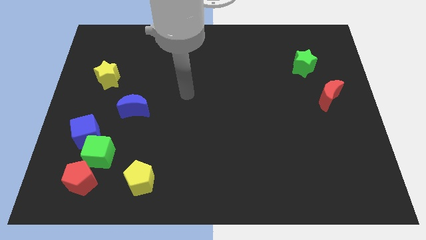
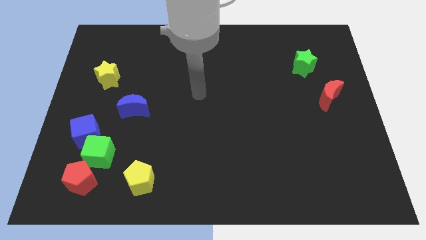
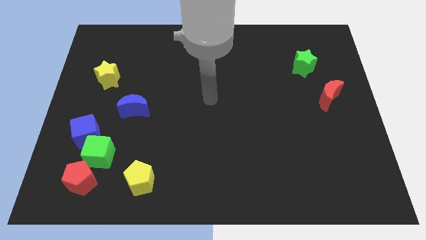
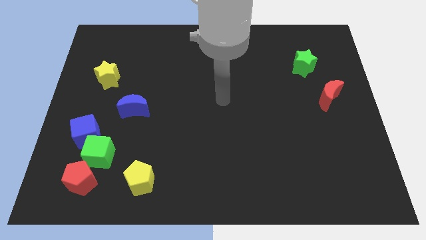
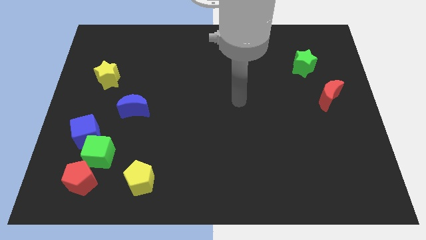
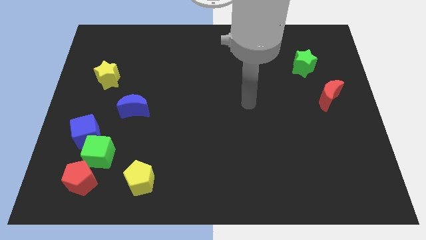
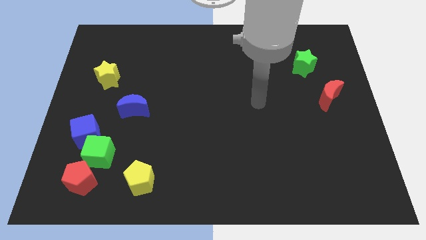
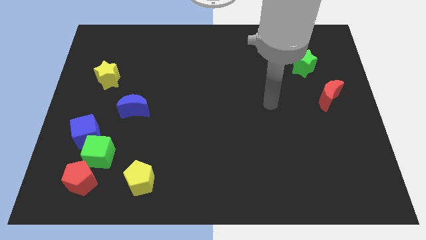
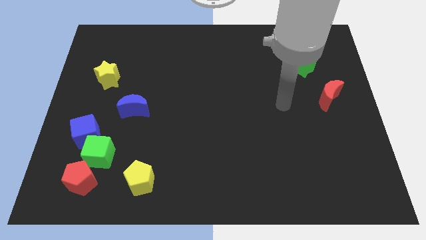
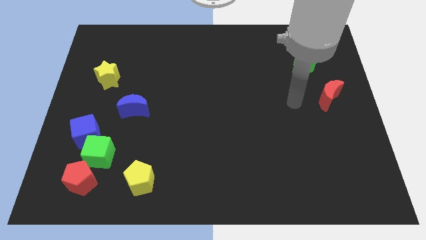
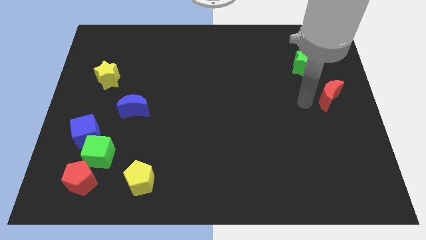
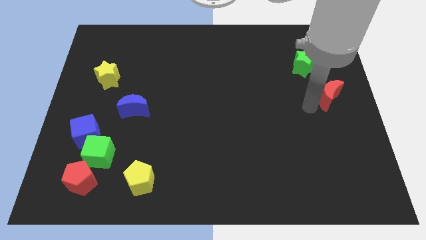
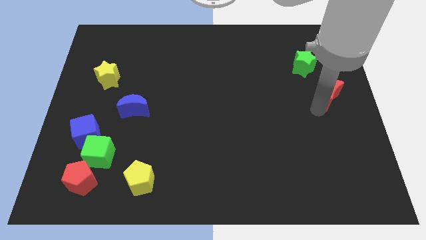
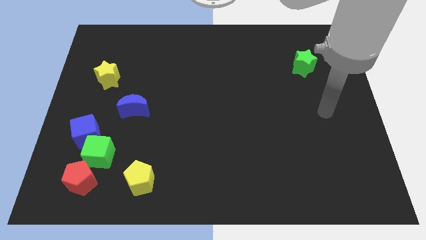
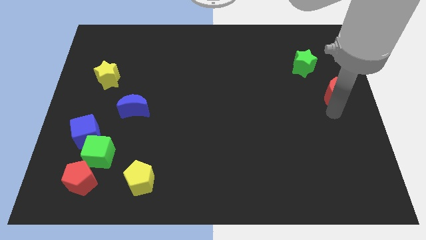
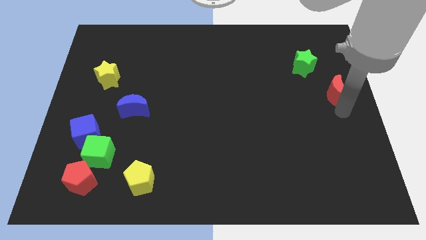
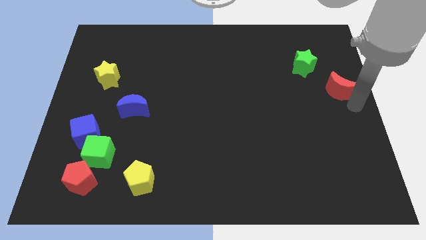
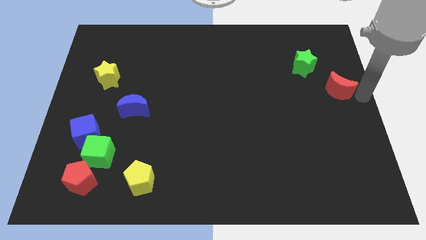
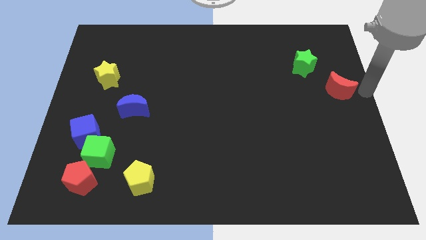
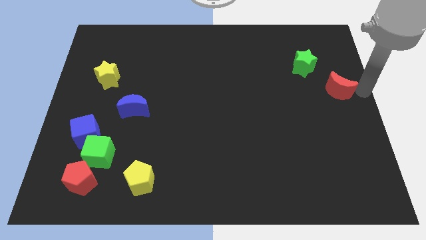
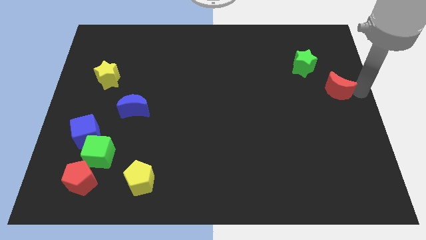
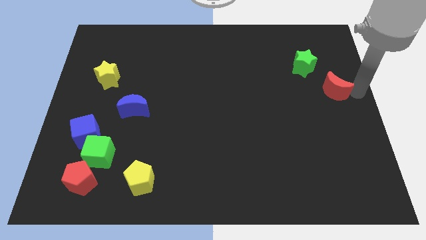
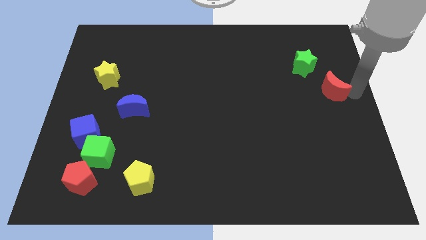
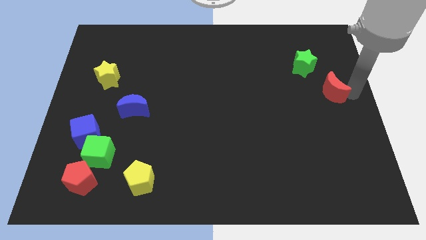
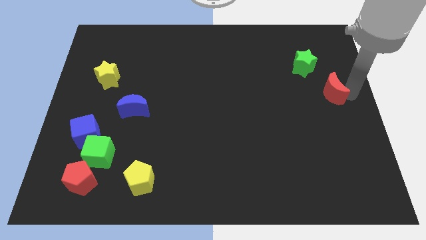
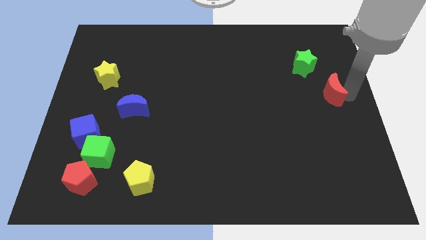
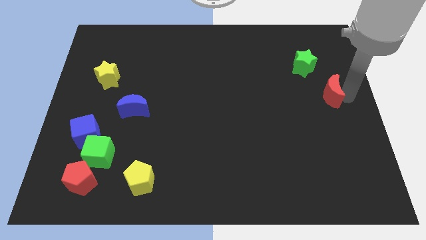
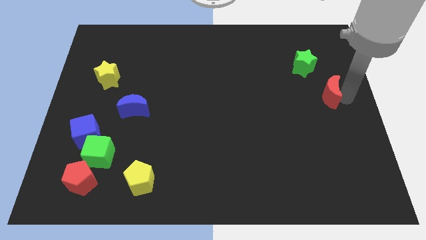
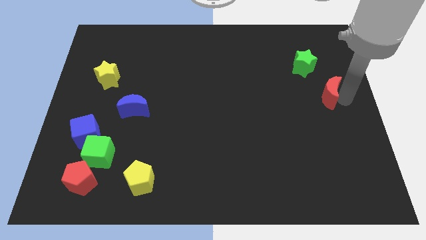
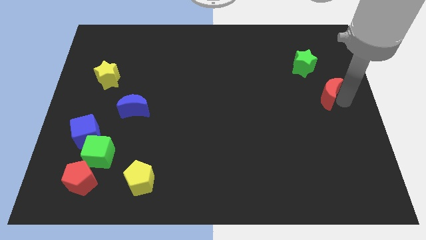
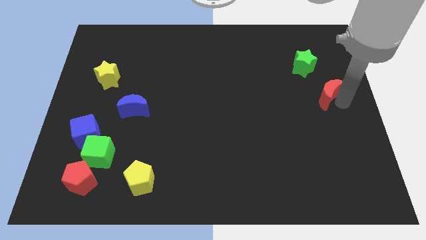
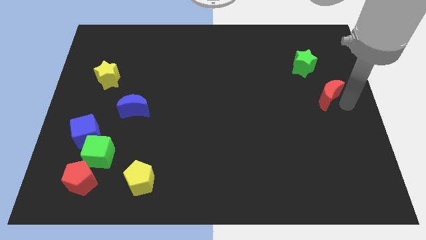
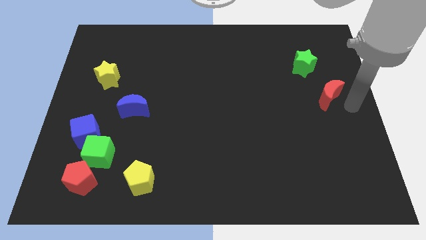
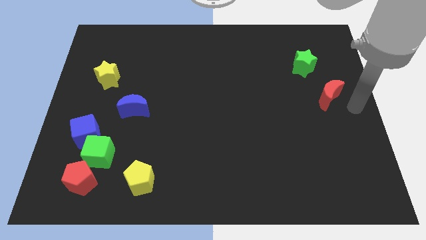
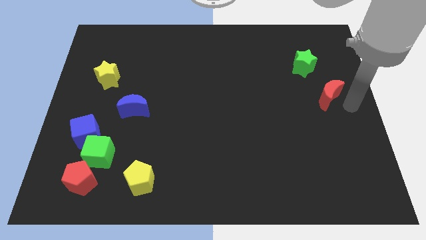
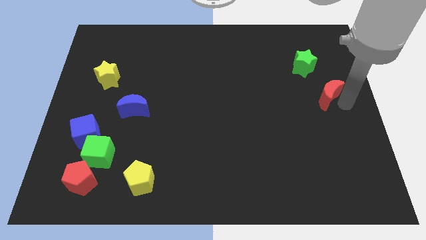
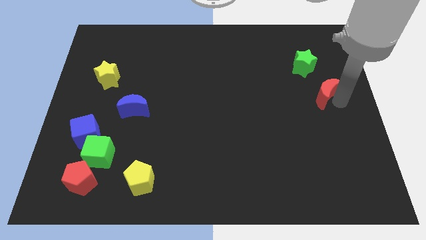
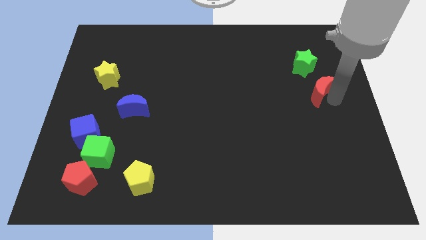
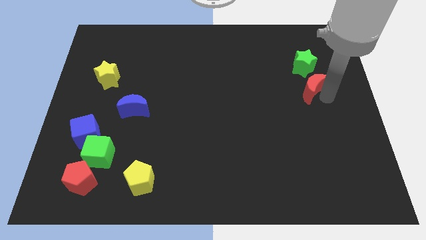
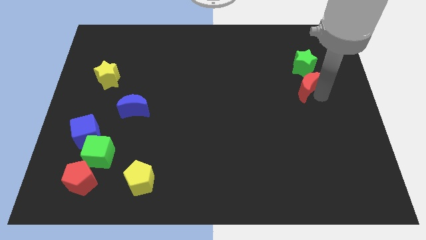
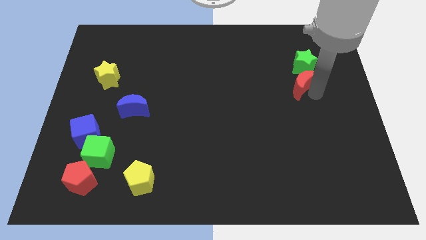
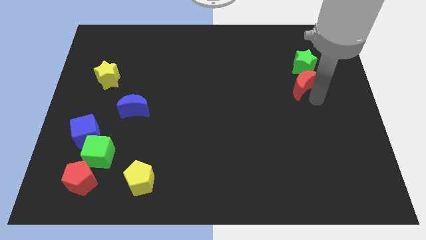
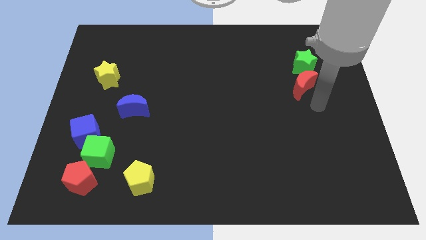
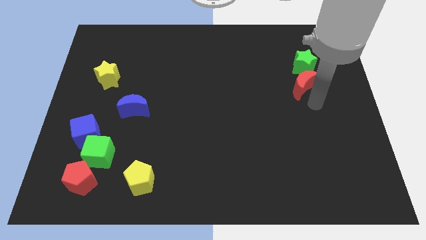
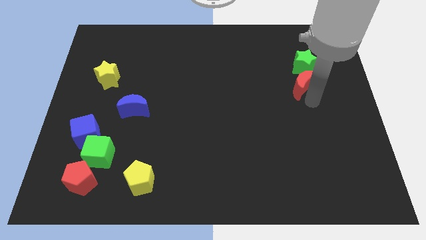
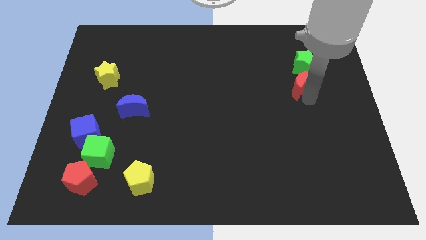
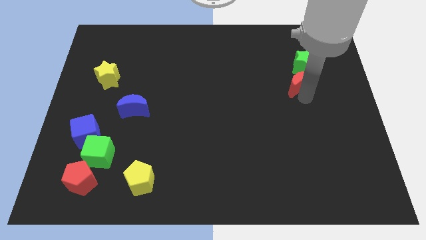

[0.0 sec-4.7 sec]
move the red moon diagonally up and to the left somewhat

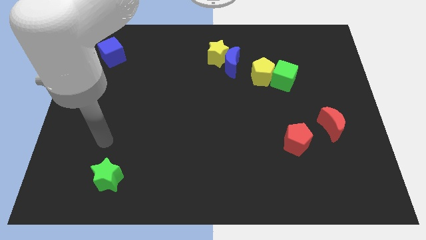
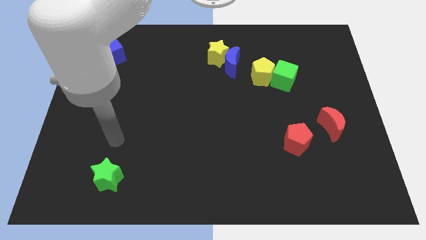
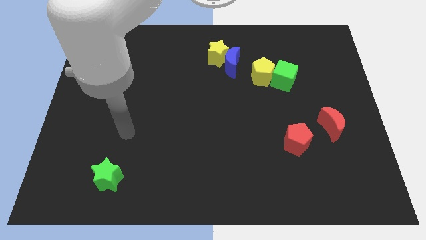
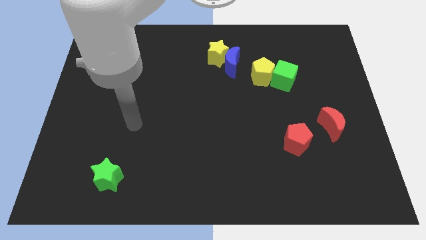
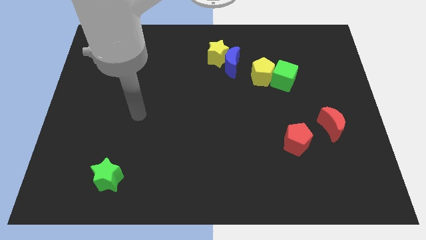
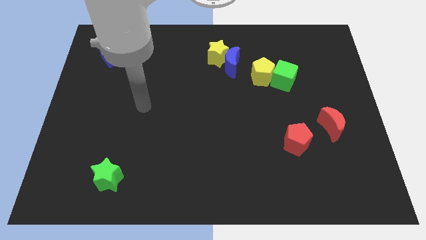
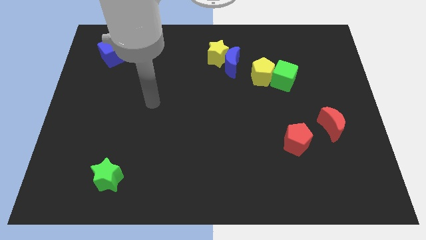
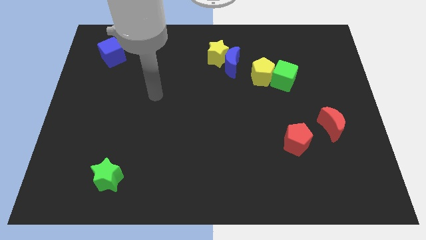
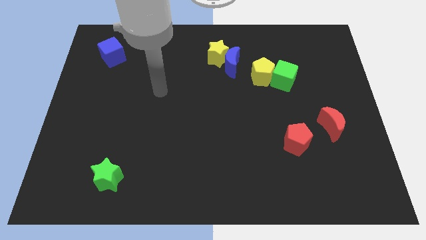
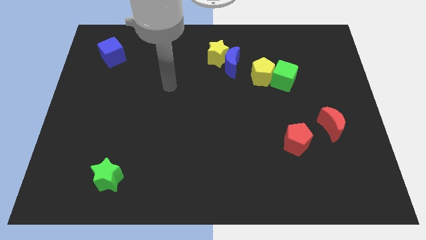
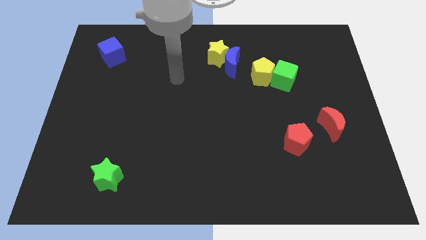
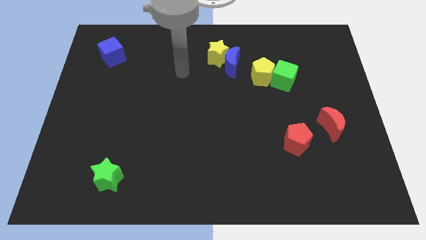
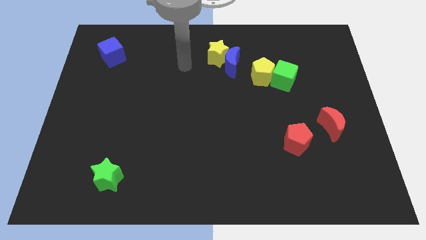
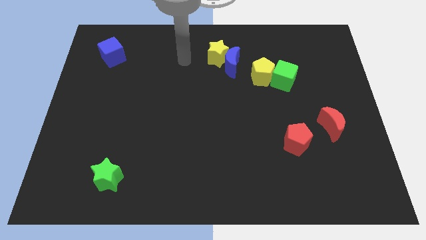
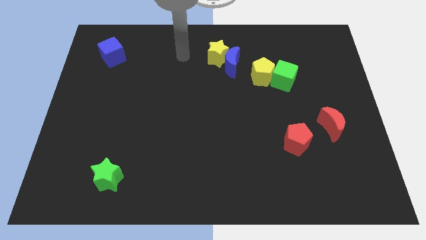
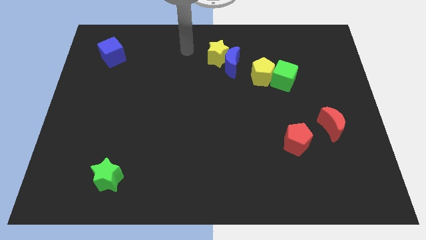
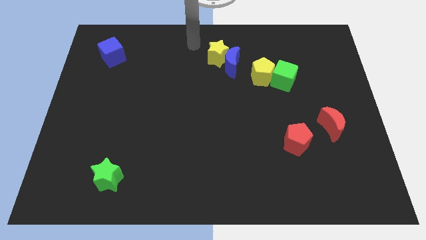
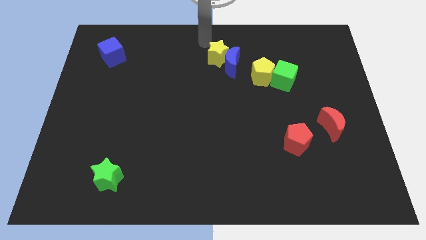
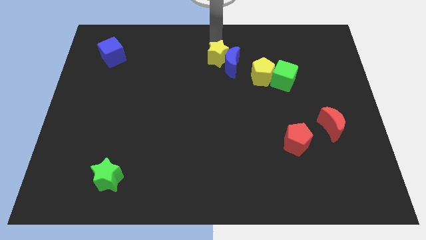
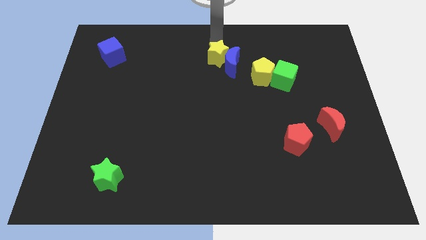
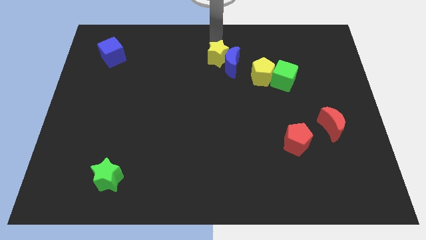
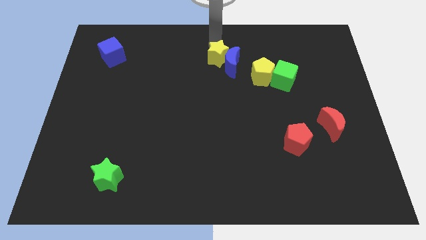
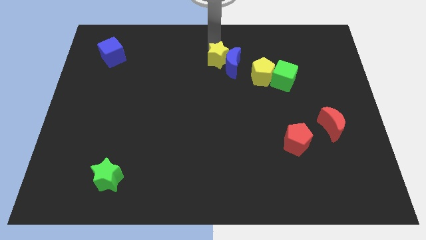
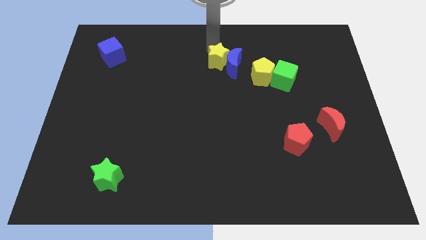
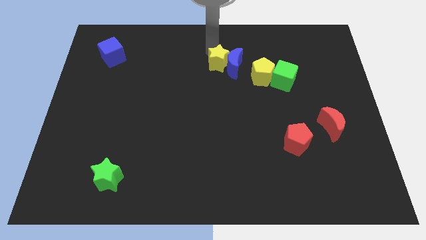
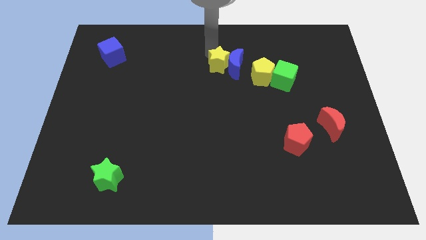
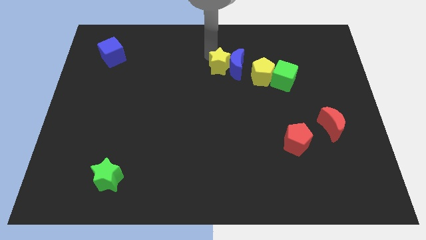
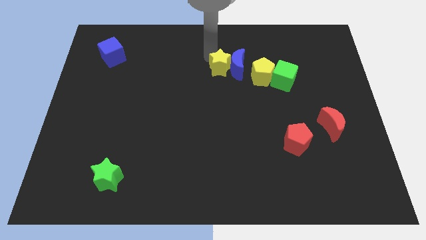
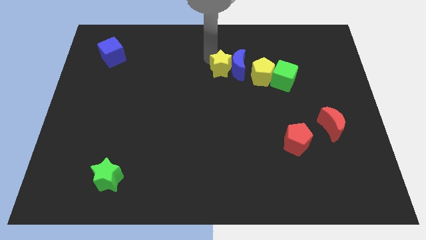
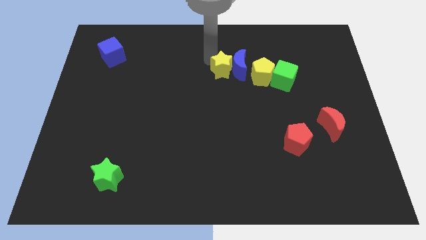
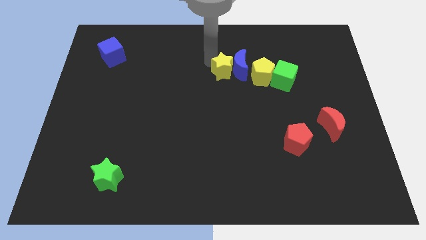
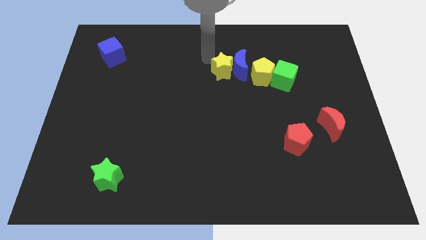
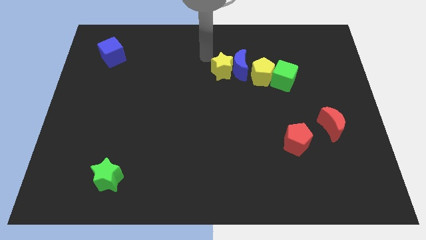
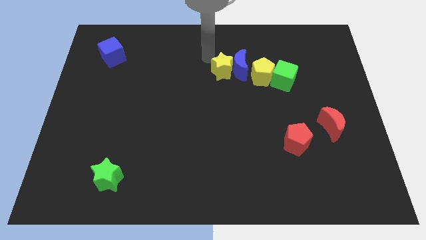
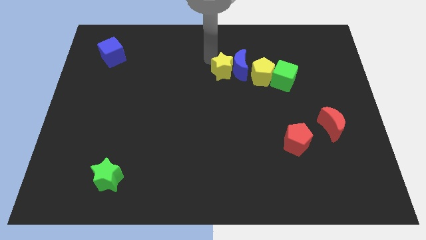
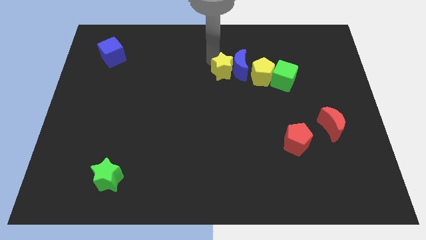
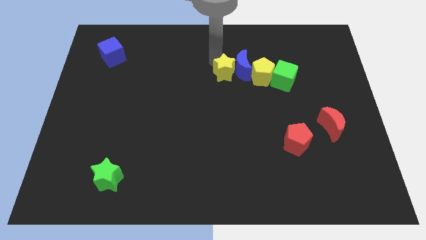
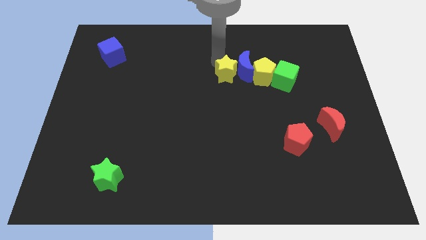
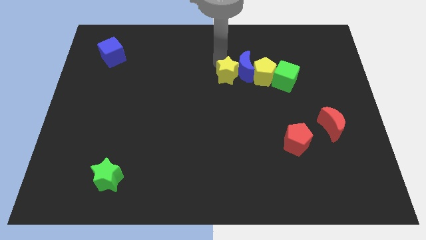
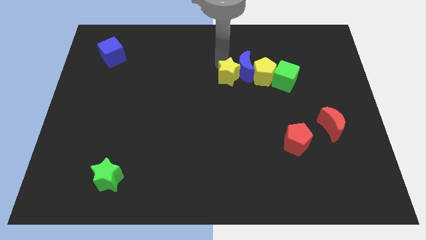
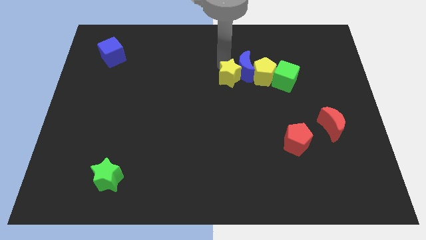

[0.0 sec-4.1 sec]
slightly push the yellow star down and right
